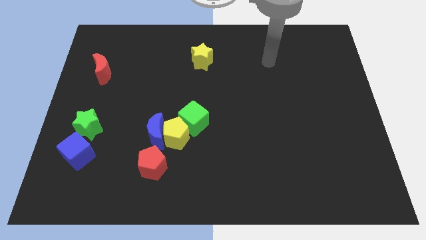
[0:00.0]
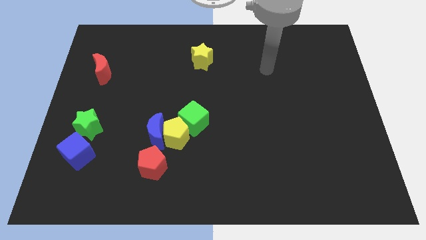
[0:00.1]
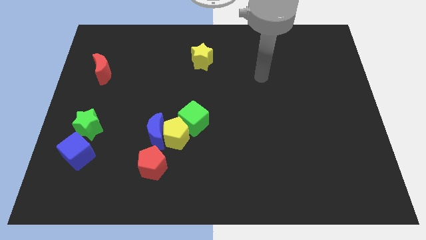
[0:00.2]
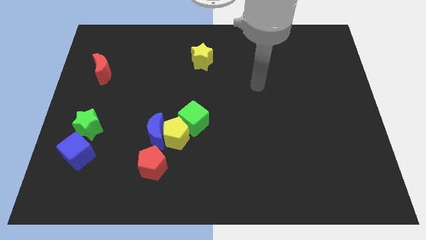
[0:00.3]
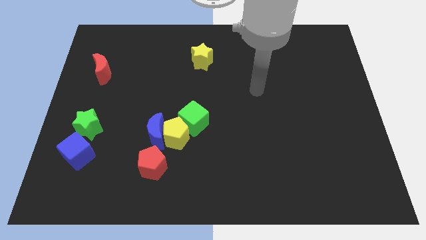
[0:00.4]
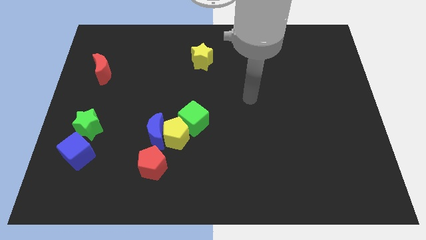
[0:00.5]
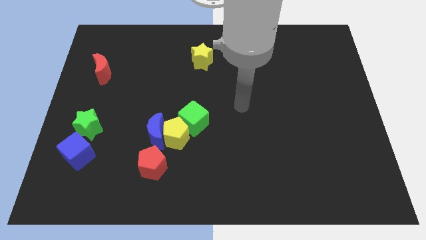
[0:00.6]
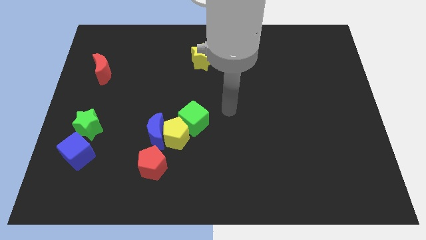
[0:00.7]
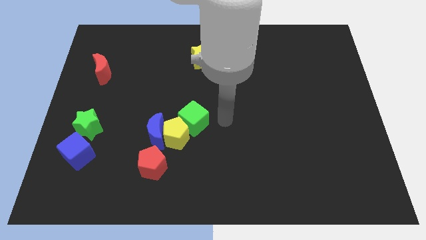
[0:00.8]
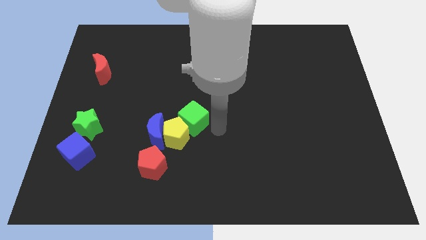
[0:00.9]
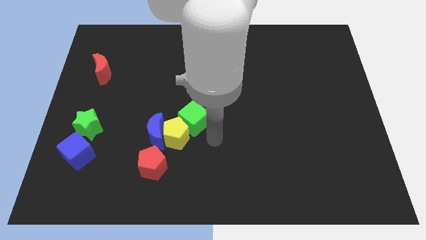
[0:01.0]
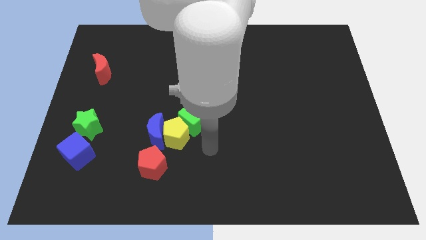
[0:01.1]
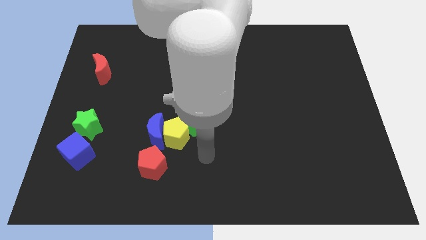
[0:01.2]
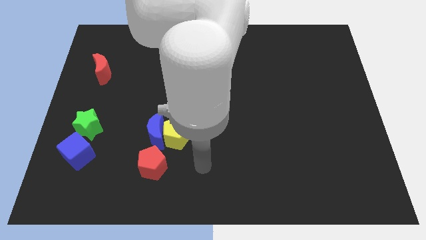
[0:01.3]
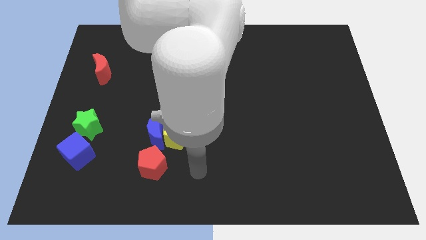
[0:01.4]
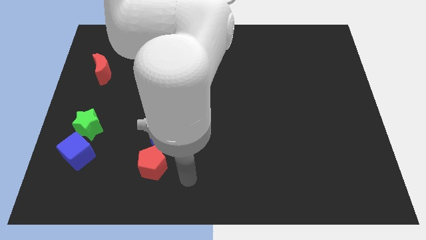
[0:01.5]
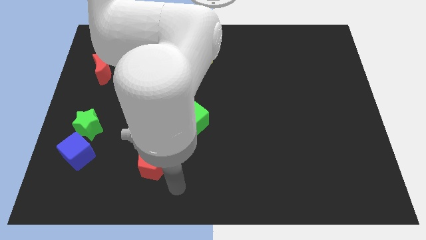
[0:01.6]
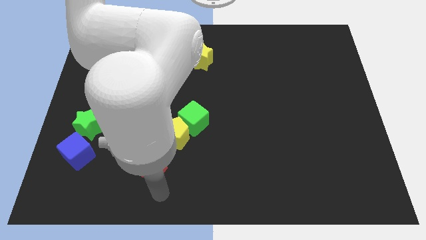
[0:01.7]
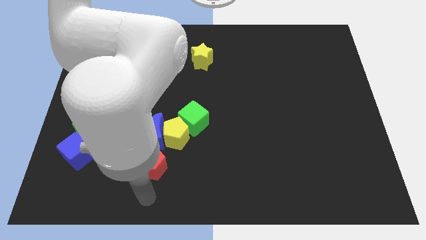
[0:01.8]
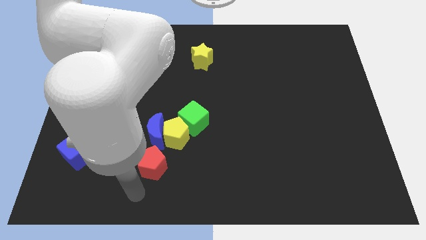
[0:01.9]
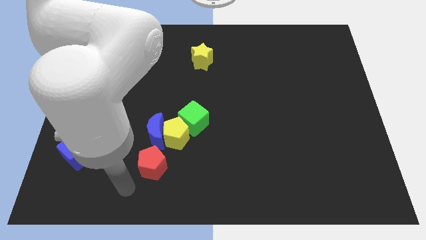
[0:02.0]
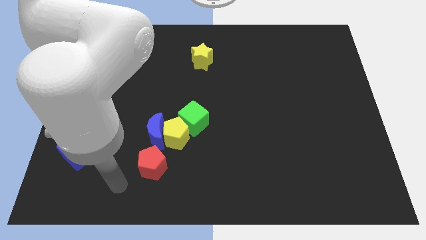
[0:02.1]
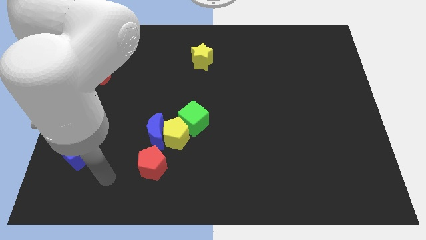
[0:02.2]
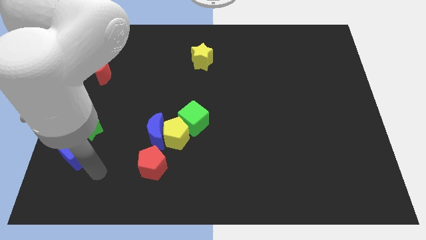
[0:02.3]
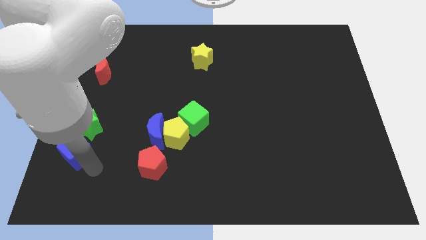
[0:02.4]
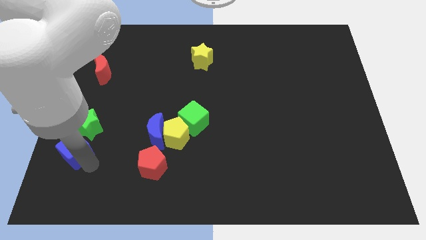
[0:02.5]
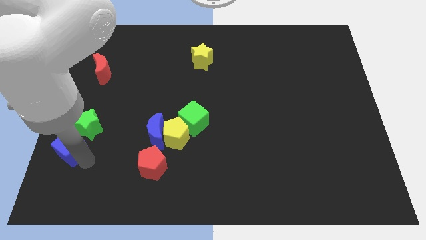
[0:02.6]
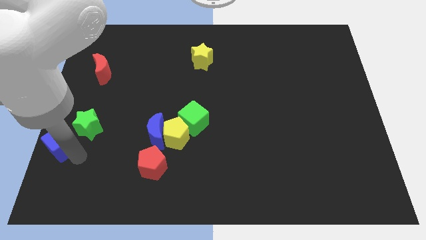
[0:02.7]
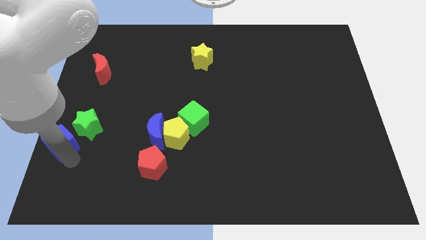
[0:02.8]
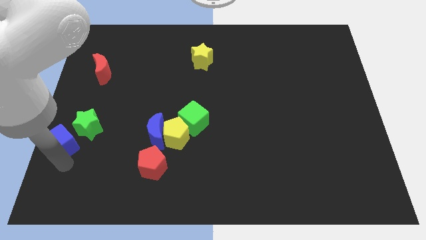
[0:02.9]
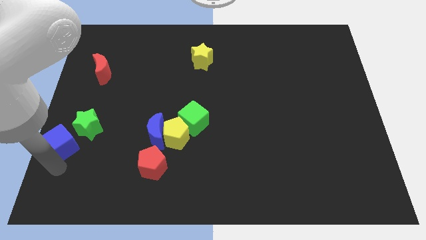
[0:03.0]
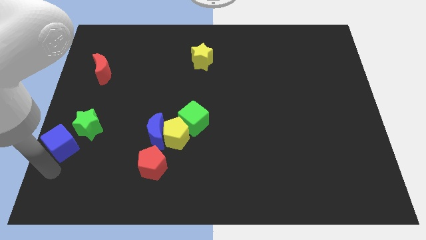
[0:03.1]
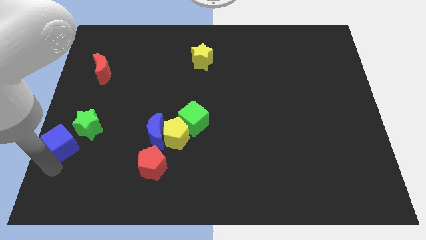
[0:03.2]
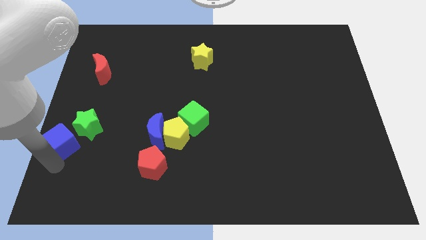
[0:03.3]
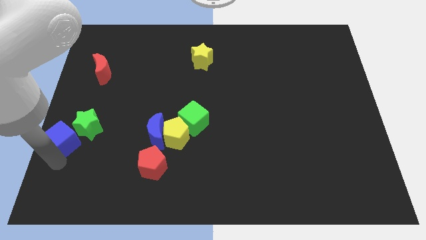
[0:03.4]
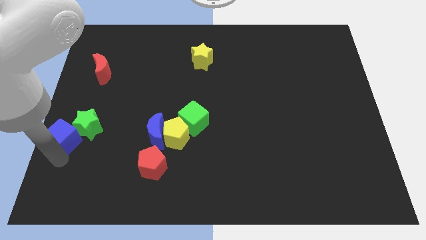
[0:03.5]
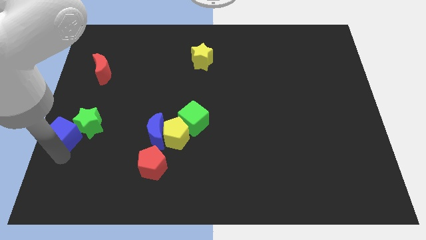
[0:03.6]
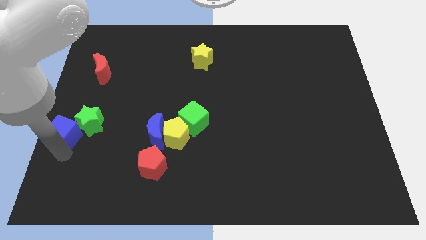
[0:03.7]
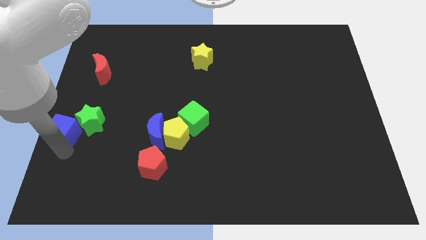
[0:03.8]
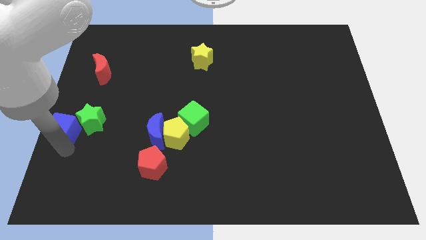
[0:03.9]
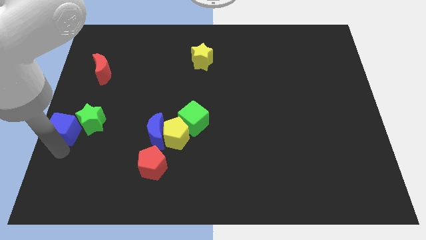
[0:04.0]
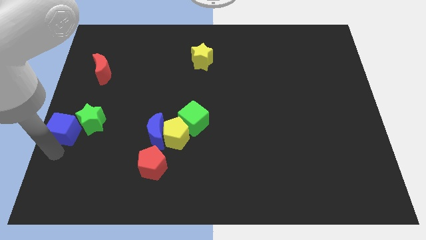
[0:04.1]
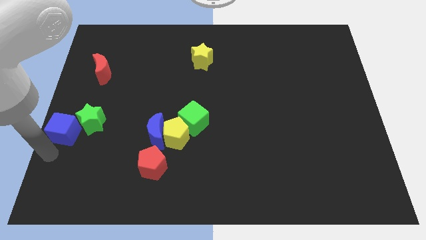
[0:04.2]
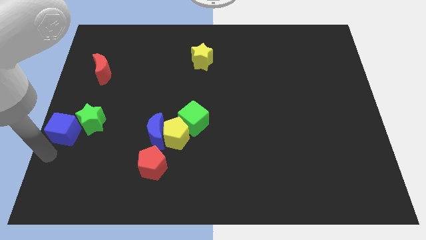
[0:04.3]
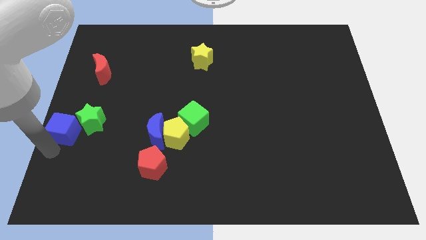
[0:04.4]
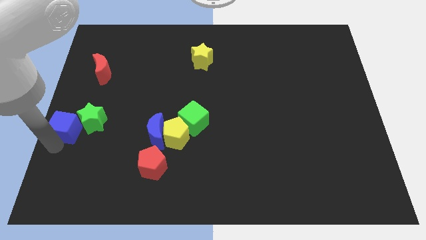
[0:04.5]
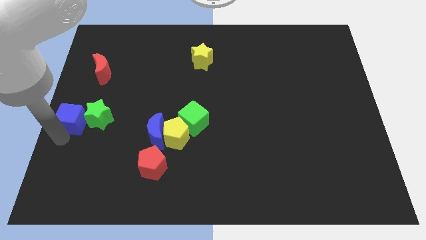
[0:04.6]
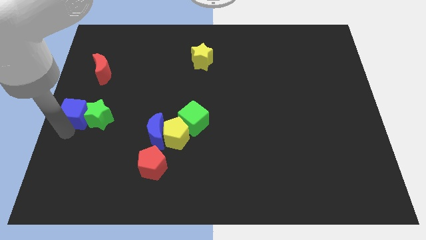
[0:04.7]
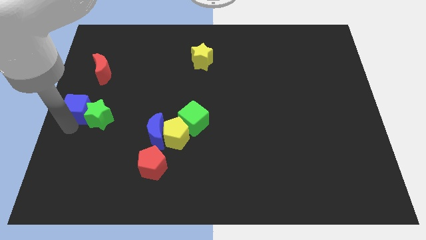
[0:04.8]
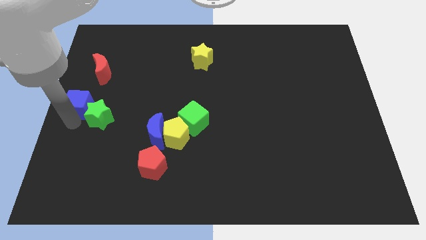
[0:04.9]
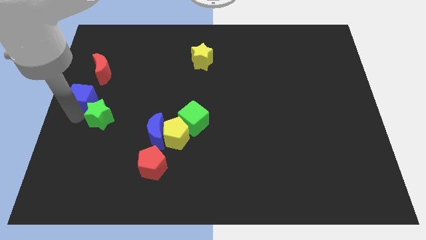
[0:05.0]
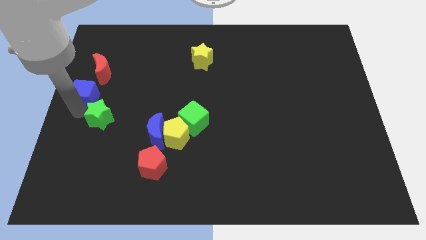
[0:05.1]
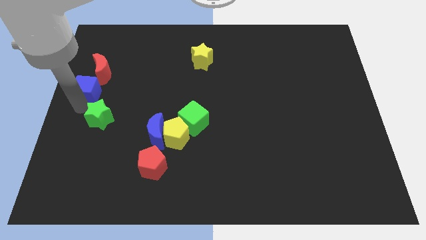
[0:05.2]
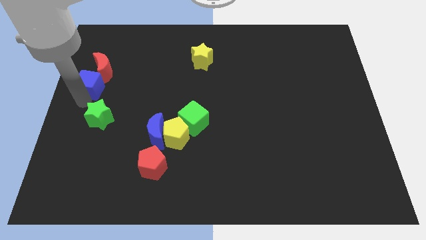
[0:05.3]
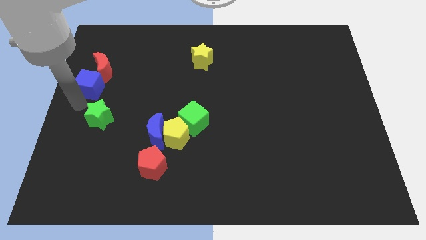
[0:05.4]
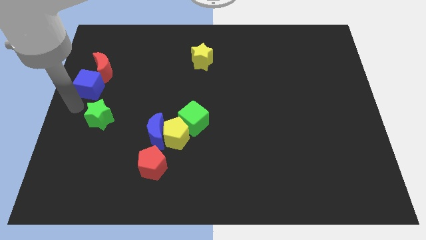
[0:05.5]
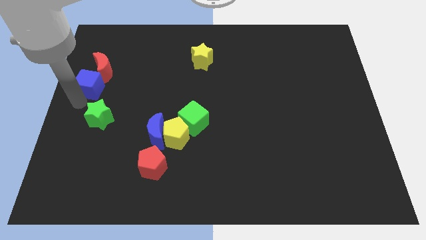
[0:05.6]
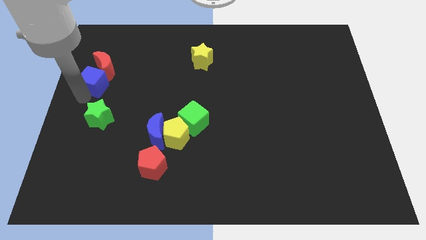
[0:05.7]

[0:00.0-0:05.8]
move the blue cube to the red moon

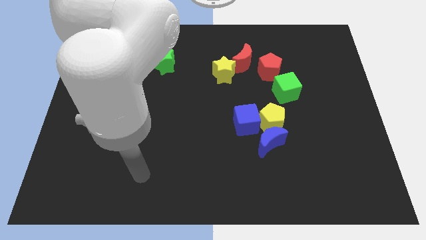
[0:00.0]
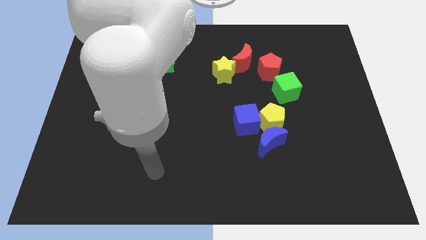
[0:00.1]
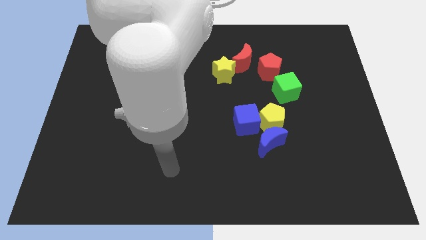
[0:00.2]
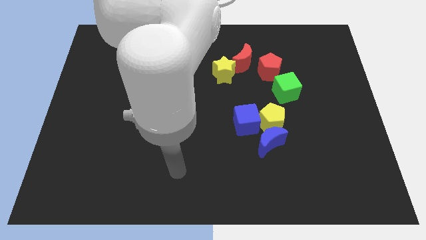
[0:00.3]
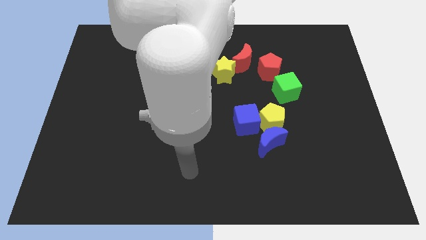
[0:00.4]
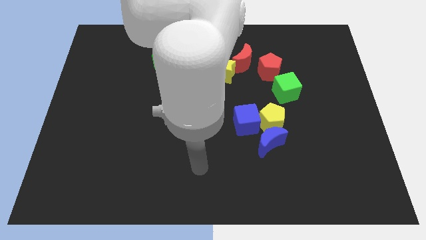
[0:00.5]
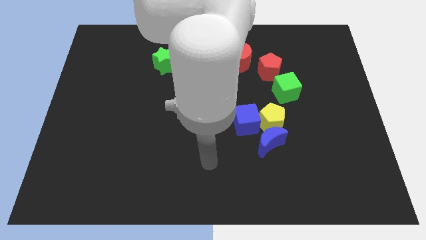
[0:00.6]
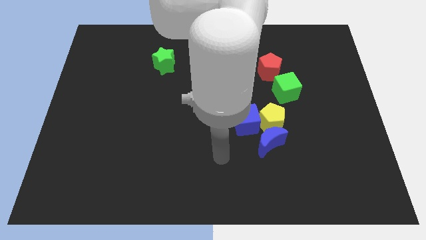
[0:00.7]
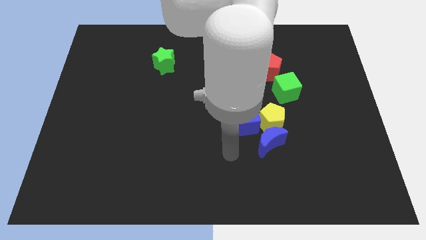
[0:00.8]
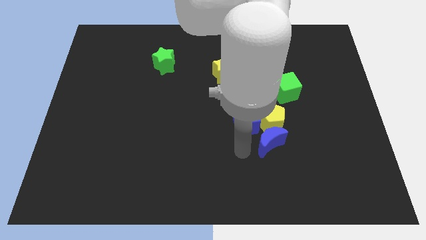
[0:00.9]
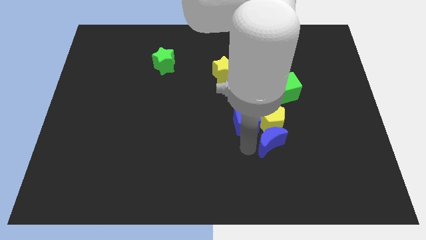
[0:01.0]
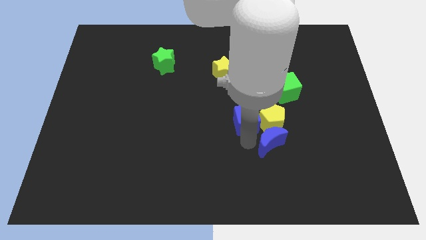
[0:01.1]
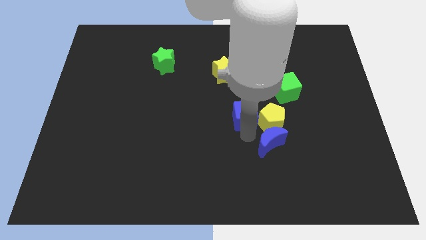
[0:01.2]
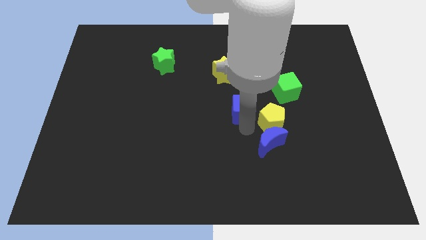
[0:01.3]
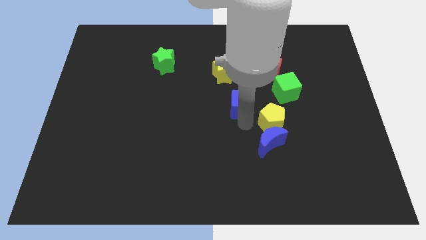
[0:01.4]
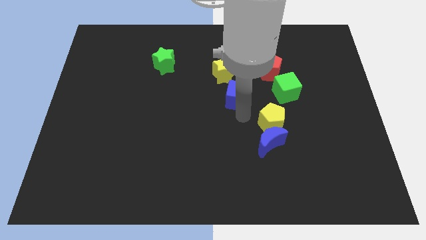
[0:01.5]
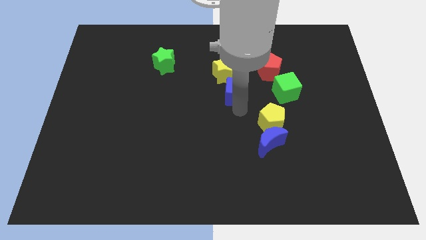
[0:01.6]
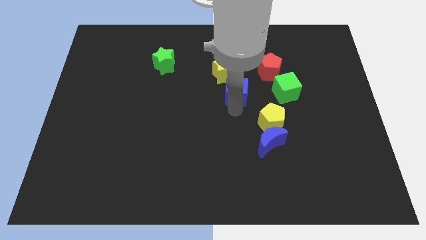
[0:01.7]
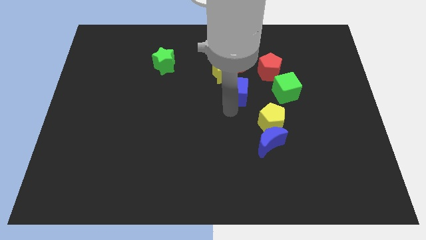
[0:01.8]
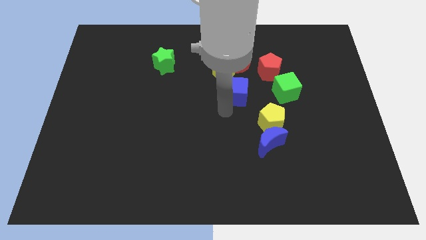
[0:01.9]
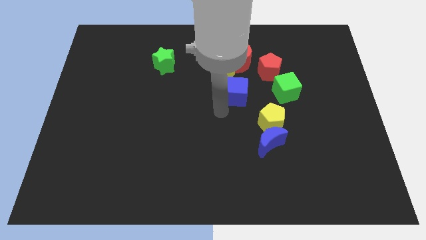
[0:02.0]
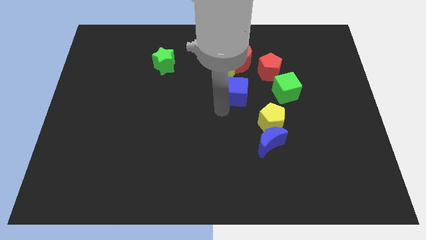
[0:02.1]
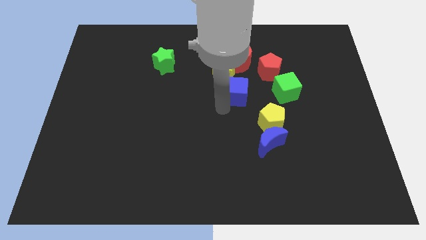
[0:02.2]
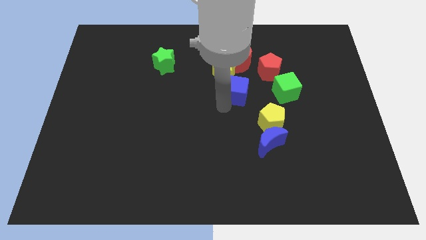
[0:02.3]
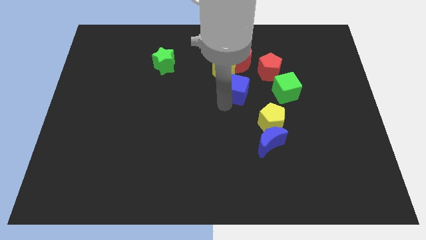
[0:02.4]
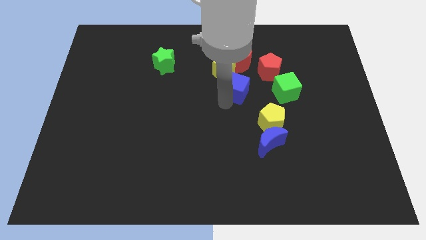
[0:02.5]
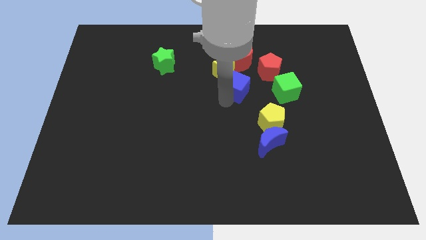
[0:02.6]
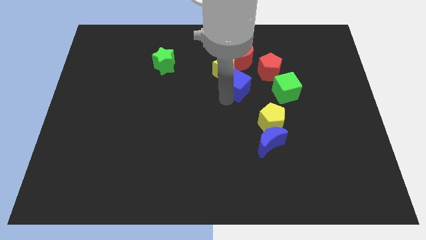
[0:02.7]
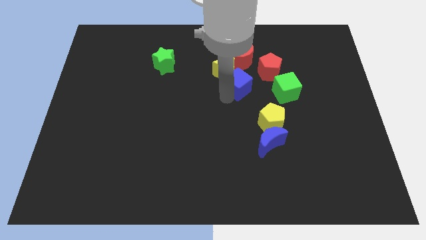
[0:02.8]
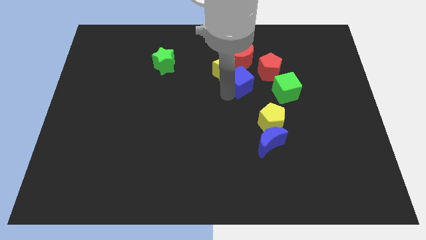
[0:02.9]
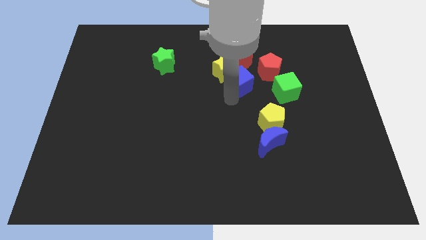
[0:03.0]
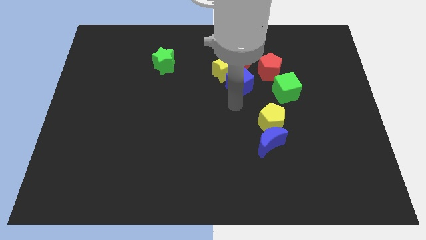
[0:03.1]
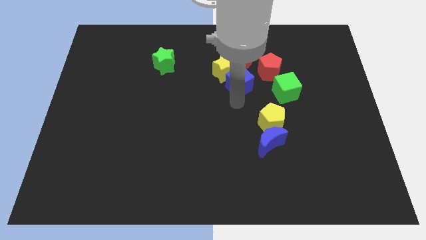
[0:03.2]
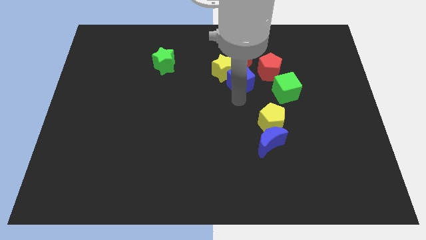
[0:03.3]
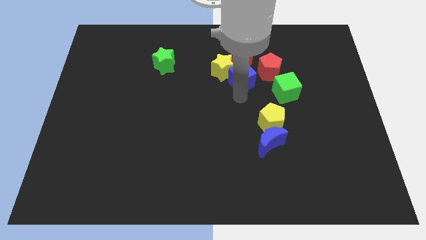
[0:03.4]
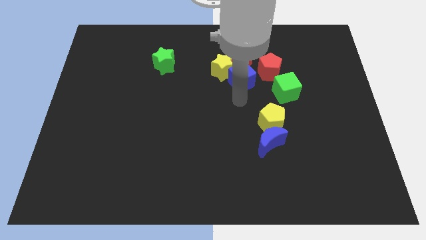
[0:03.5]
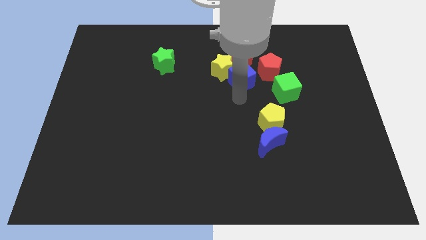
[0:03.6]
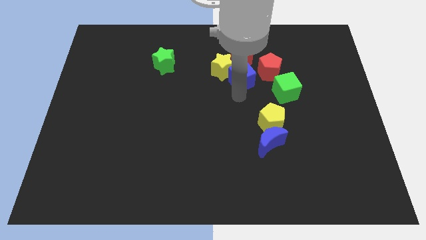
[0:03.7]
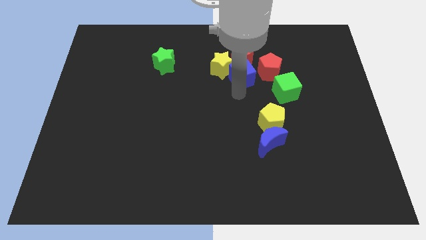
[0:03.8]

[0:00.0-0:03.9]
slide the blue cube close to the red moon
